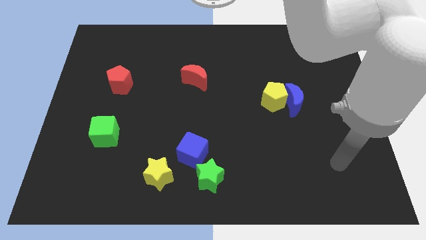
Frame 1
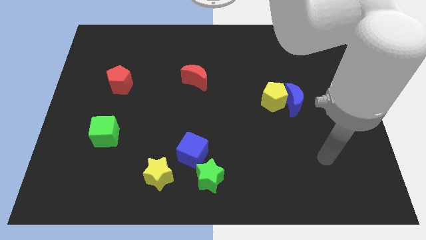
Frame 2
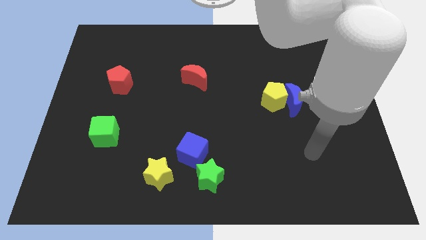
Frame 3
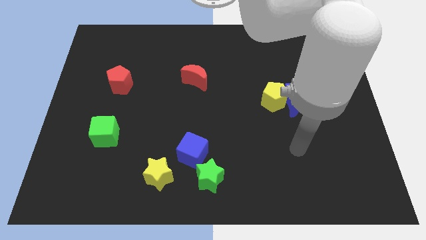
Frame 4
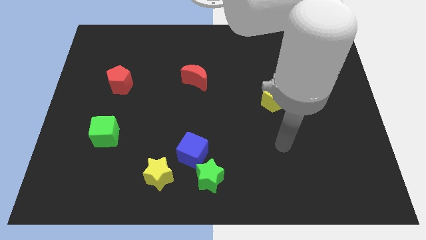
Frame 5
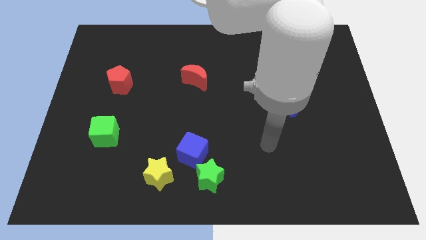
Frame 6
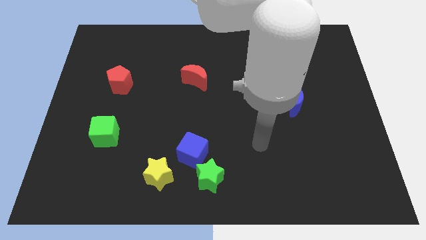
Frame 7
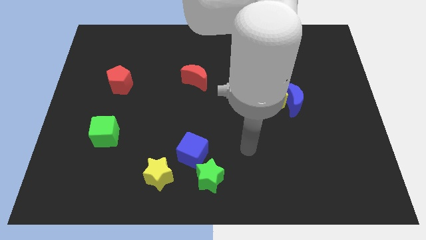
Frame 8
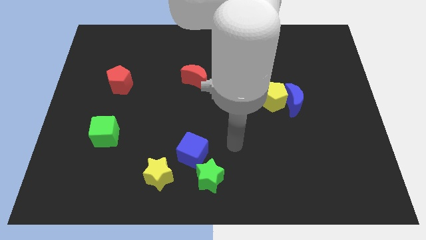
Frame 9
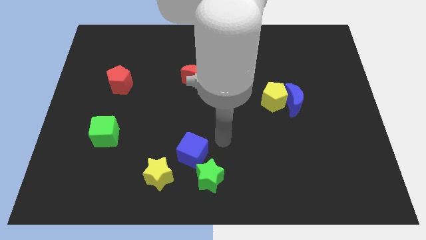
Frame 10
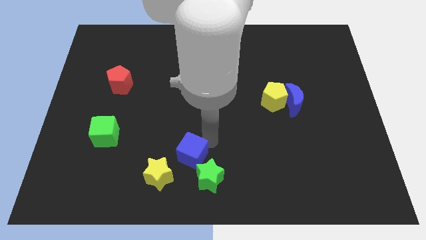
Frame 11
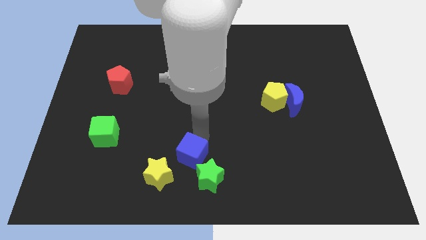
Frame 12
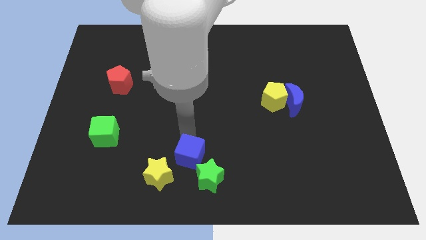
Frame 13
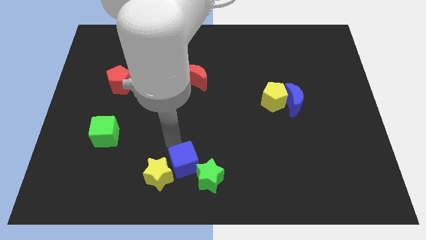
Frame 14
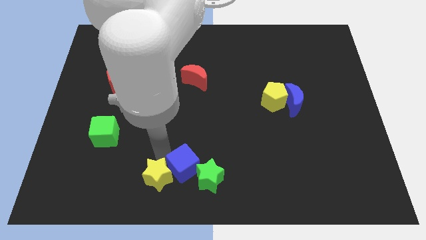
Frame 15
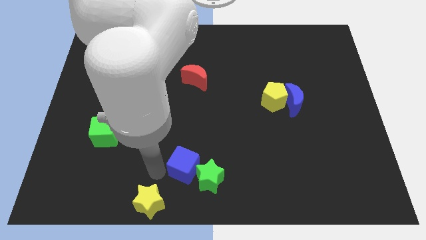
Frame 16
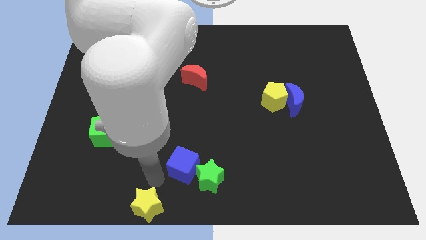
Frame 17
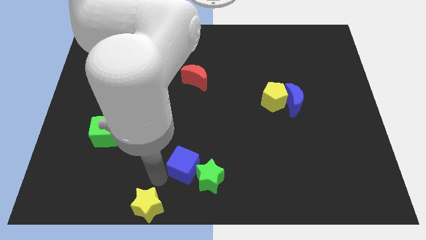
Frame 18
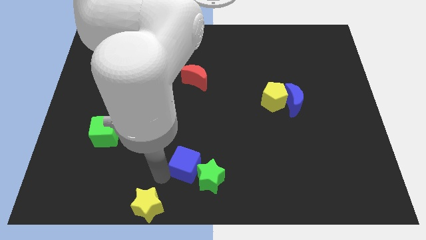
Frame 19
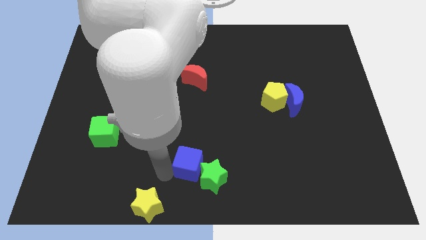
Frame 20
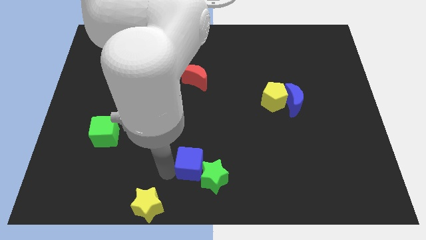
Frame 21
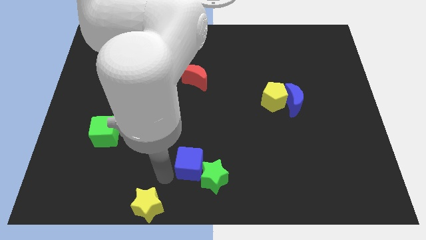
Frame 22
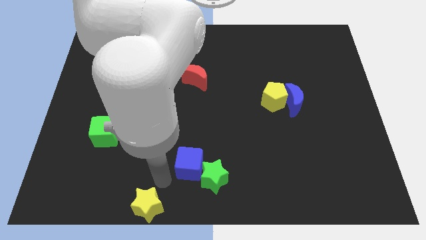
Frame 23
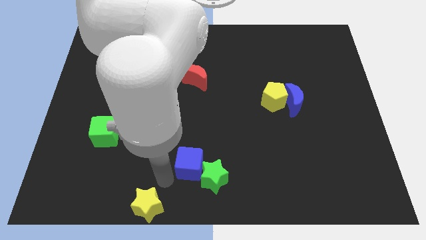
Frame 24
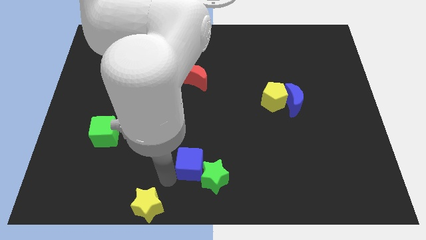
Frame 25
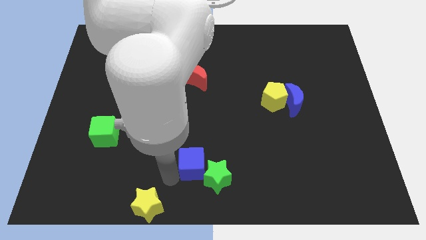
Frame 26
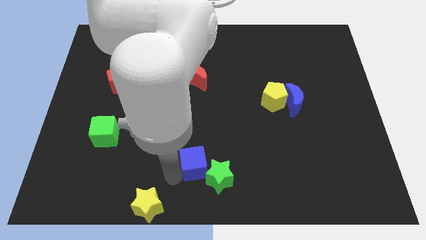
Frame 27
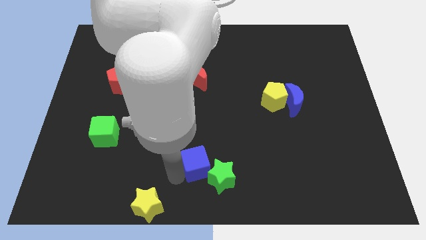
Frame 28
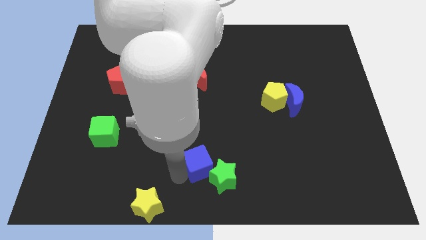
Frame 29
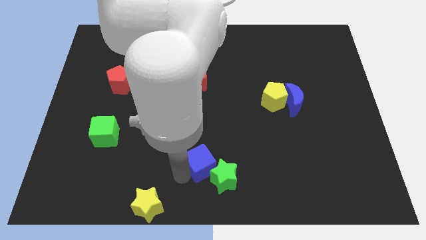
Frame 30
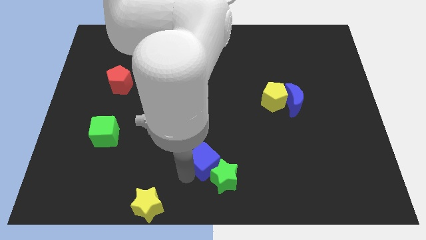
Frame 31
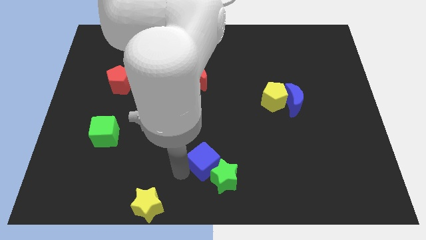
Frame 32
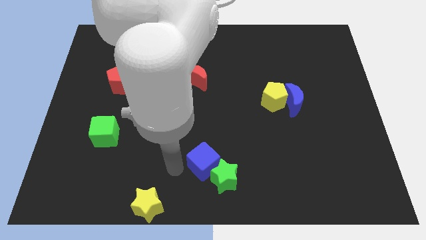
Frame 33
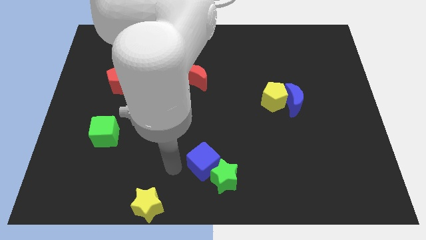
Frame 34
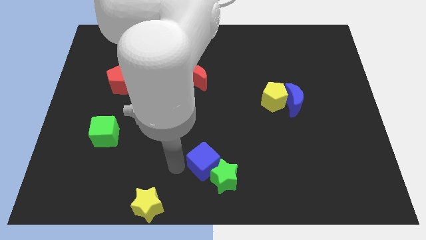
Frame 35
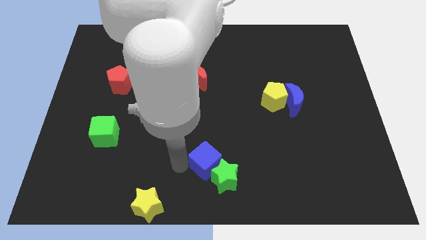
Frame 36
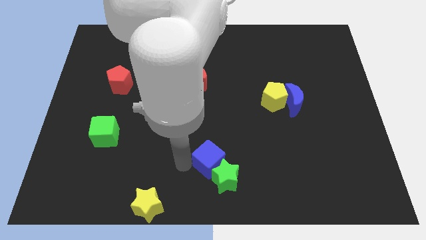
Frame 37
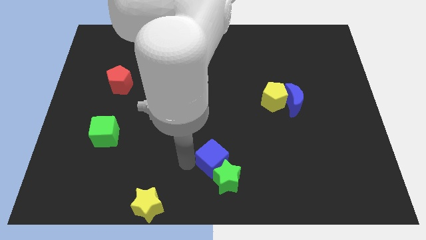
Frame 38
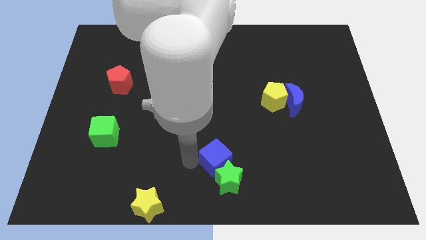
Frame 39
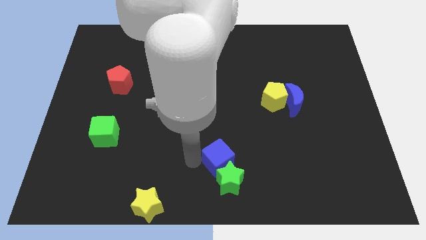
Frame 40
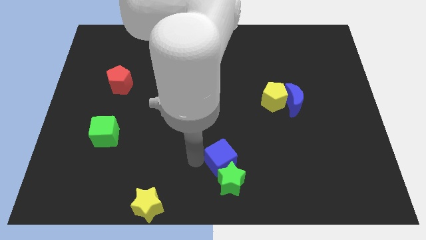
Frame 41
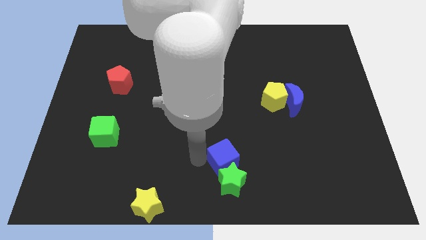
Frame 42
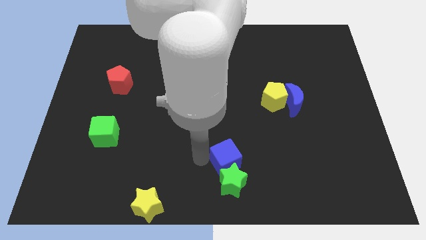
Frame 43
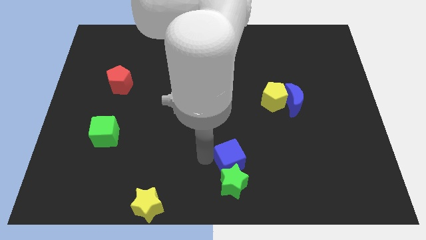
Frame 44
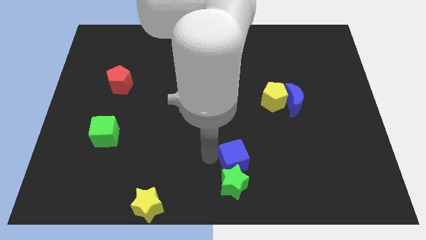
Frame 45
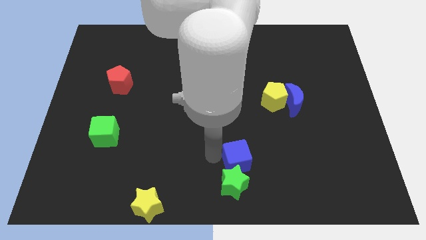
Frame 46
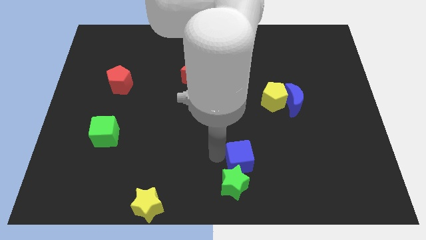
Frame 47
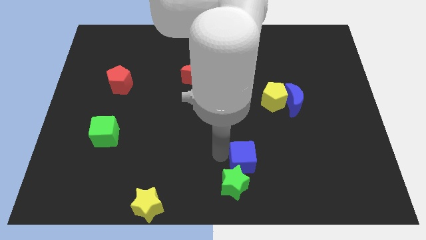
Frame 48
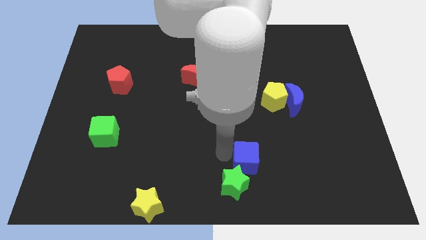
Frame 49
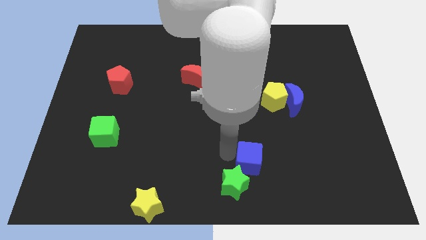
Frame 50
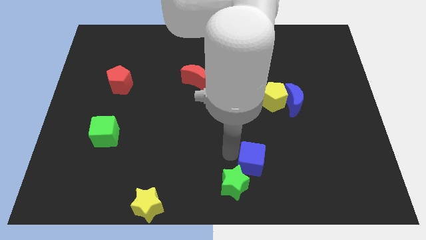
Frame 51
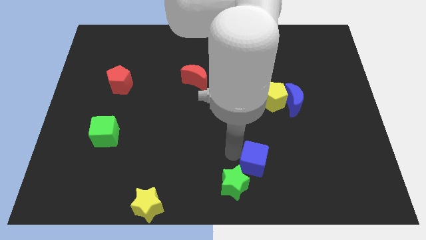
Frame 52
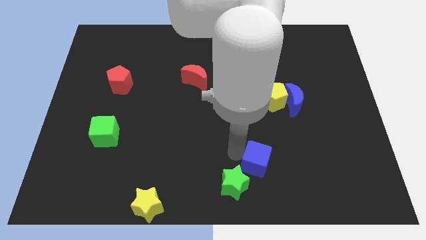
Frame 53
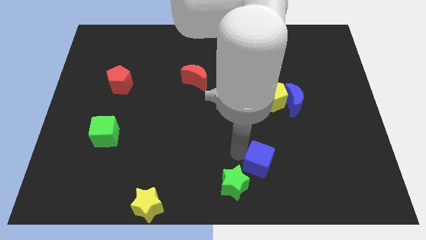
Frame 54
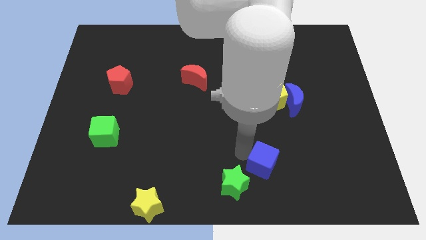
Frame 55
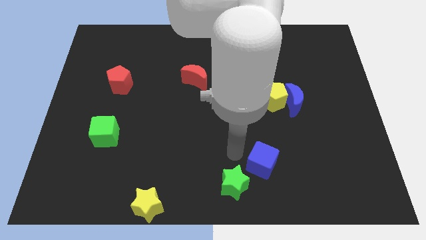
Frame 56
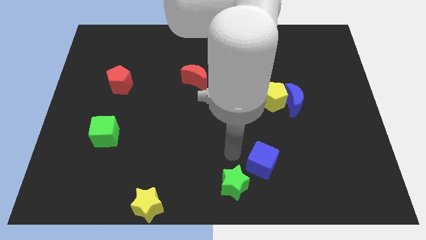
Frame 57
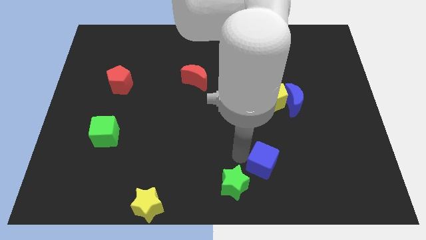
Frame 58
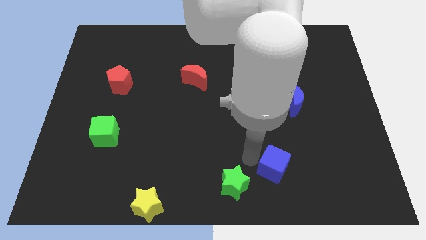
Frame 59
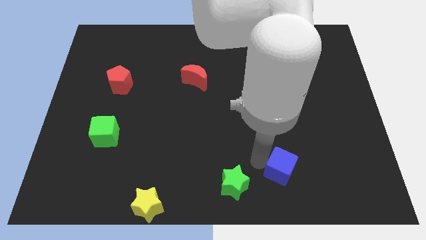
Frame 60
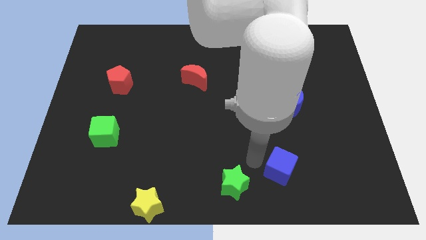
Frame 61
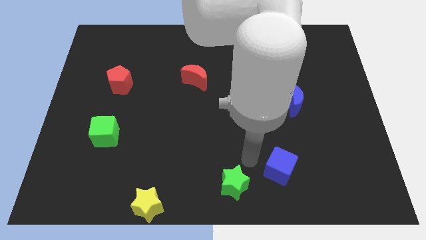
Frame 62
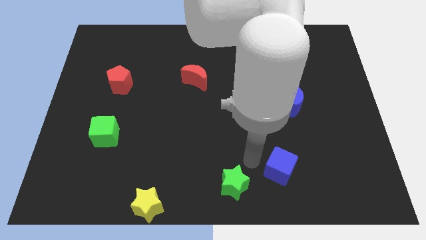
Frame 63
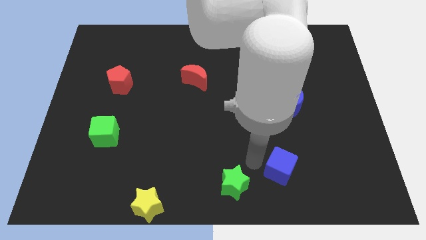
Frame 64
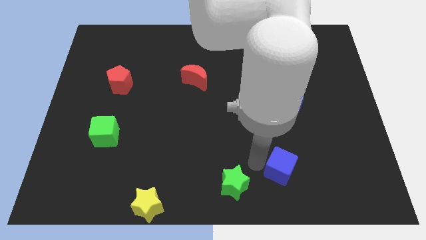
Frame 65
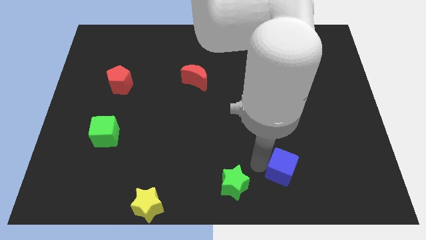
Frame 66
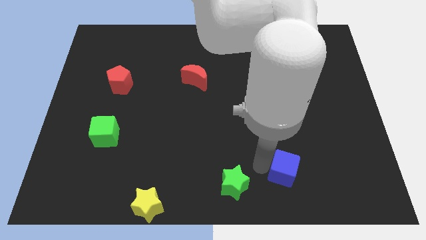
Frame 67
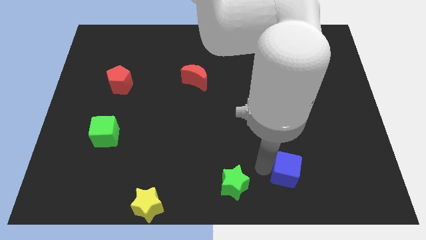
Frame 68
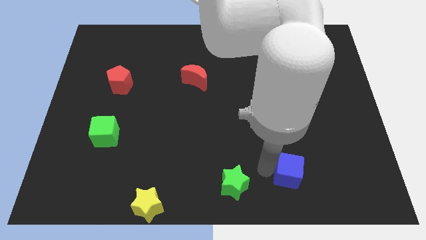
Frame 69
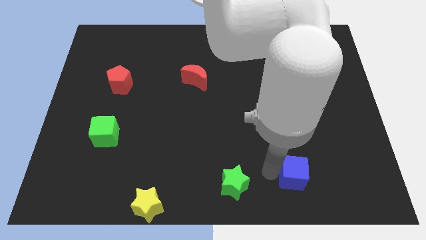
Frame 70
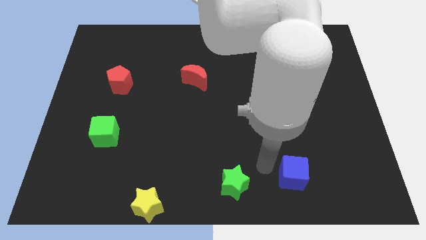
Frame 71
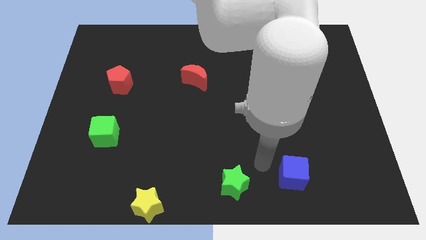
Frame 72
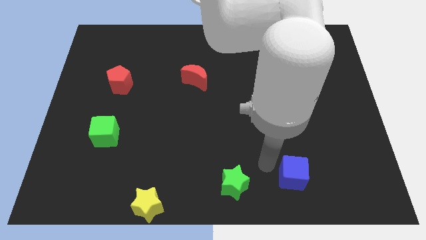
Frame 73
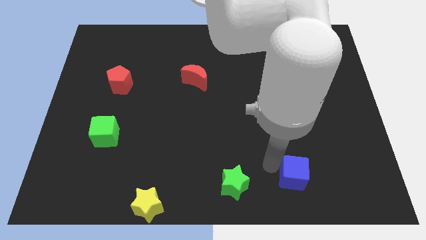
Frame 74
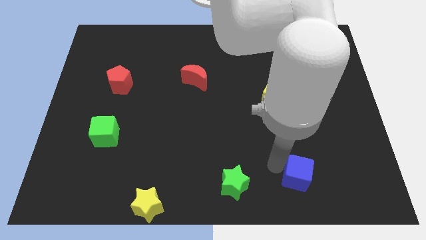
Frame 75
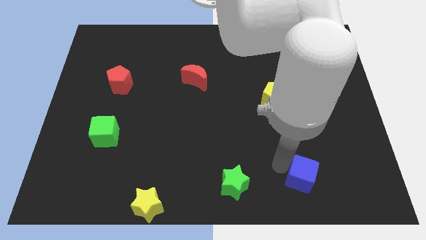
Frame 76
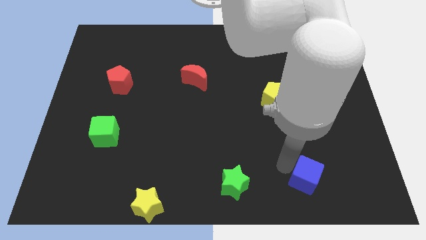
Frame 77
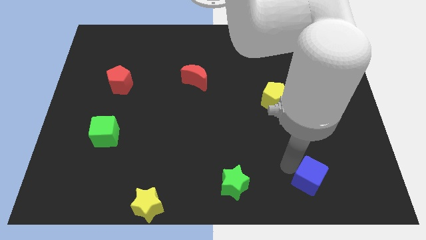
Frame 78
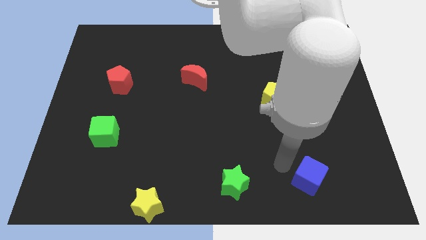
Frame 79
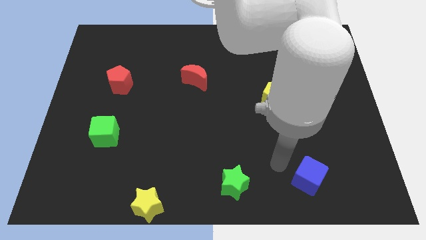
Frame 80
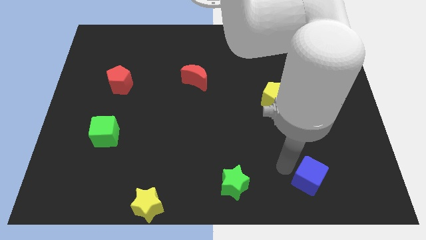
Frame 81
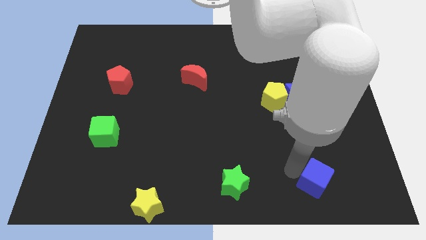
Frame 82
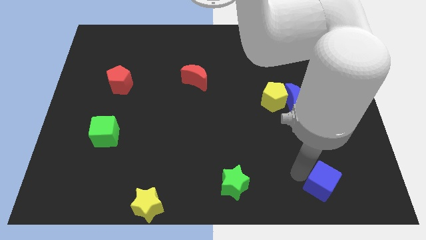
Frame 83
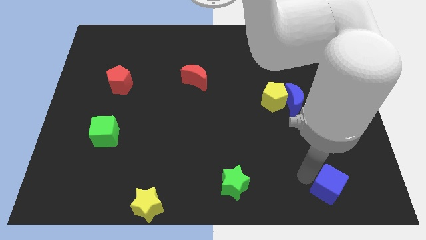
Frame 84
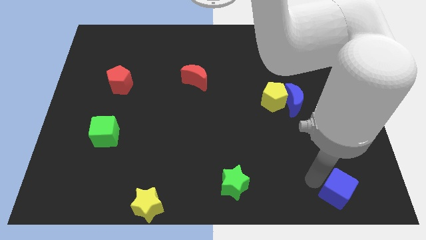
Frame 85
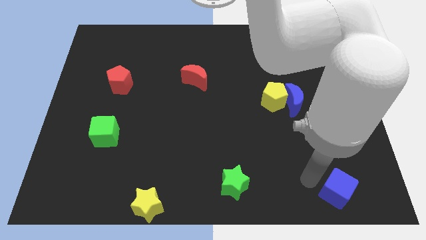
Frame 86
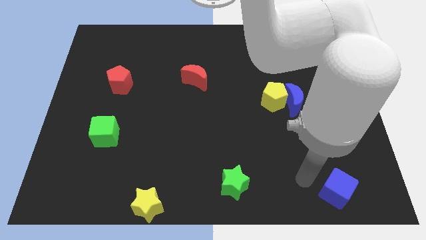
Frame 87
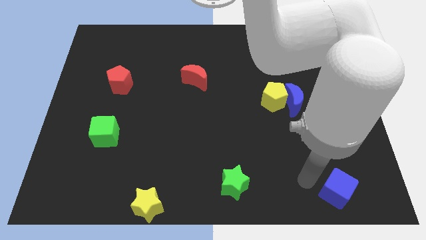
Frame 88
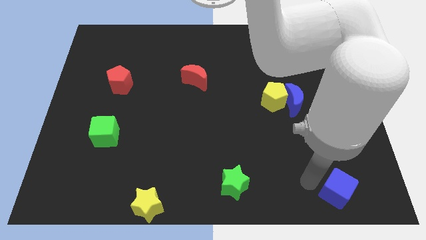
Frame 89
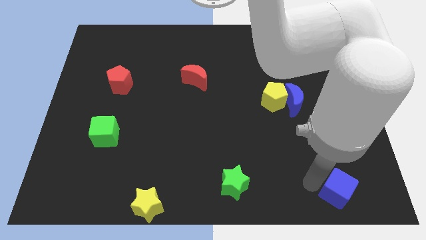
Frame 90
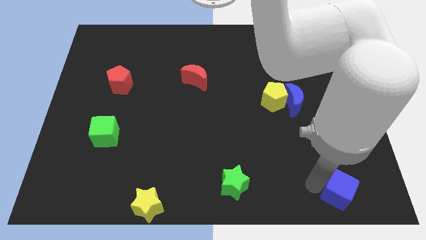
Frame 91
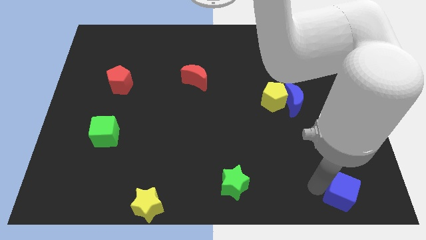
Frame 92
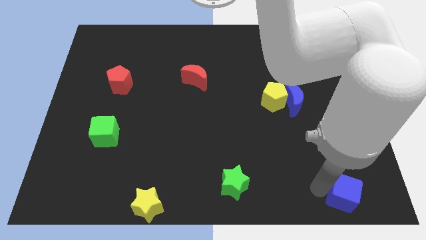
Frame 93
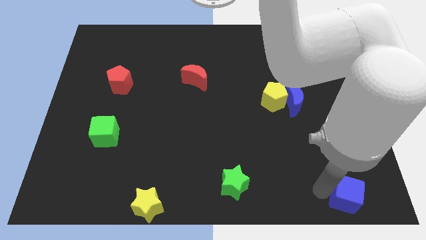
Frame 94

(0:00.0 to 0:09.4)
push the blue cube to the bottom right of the board
